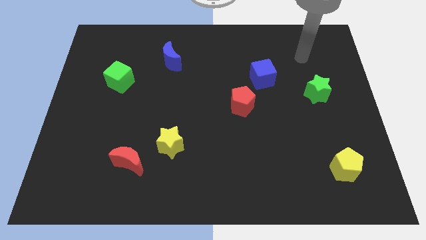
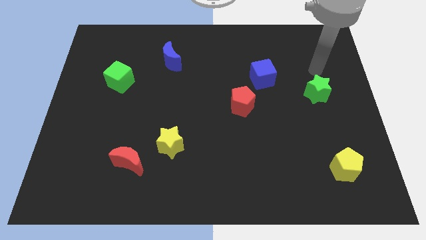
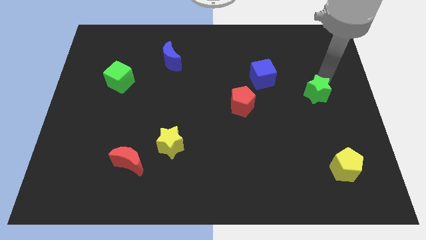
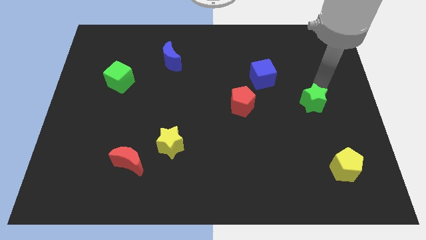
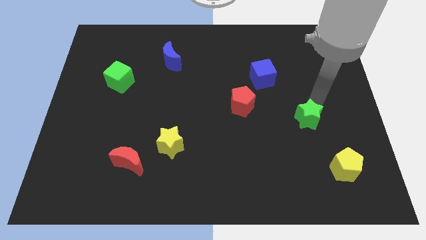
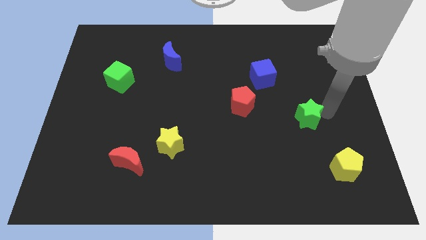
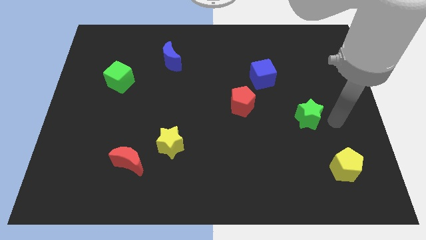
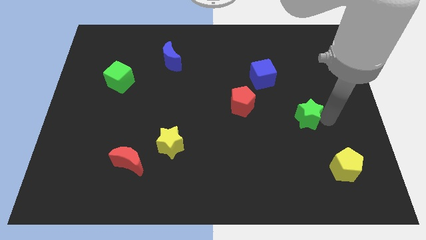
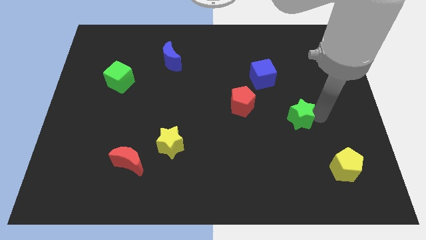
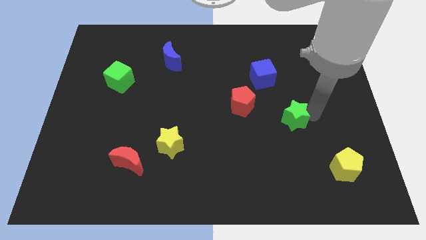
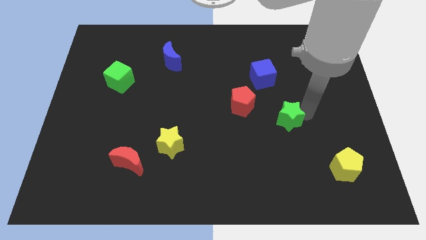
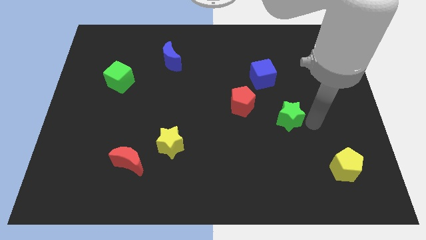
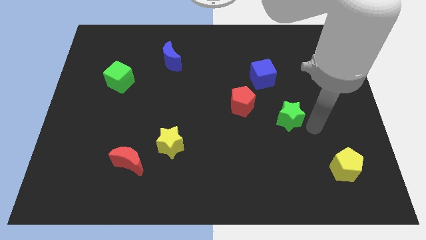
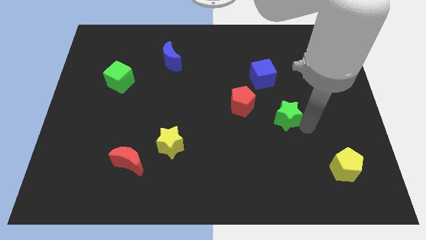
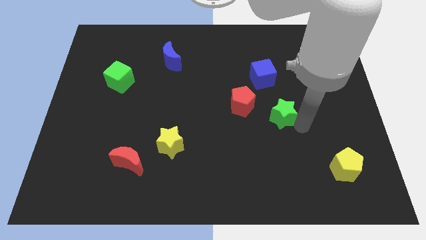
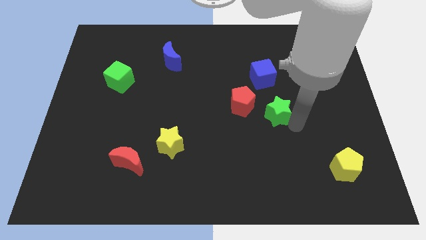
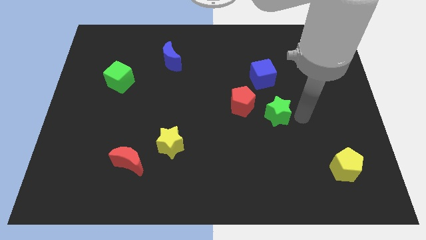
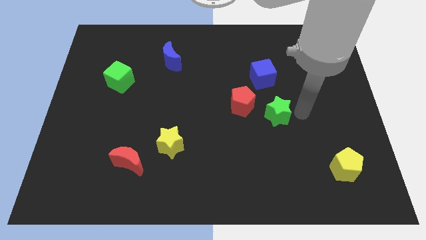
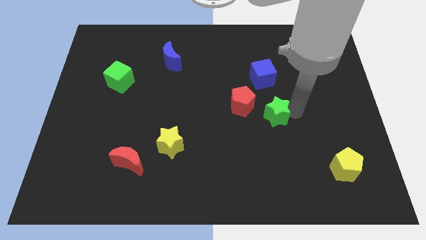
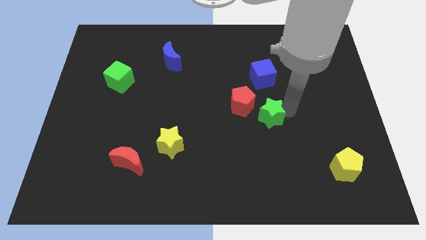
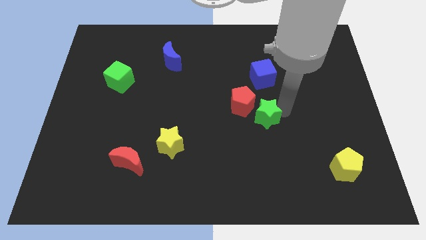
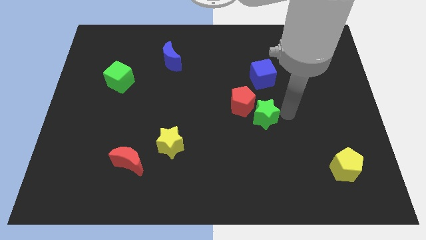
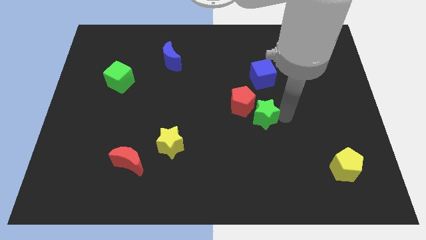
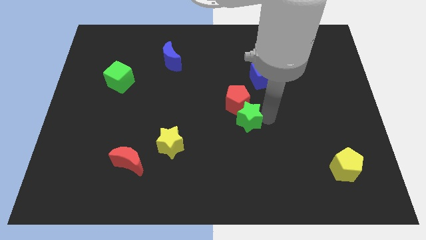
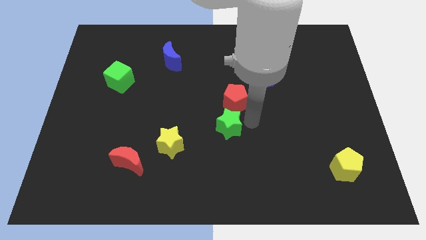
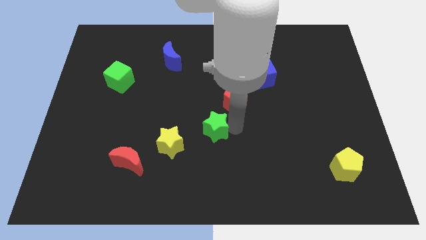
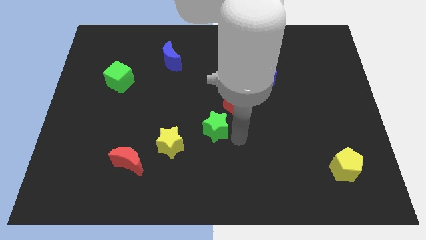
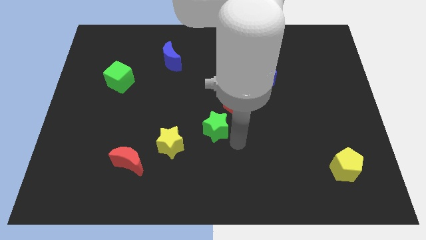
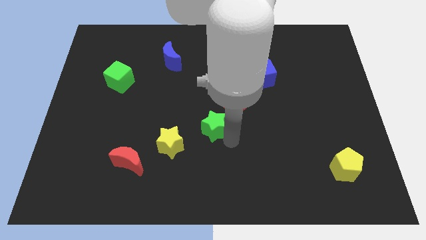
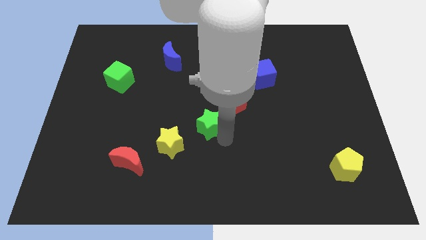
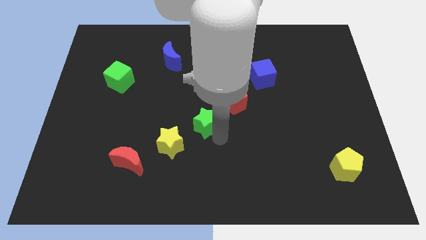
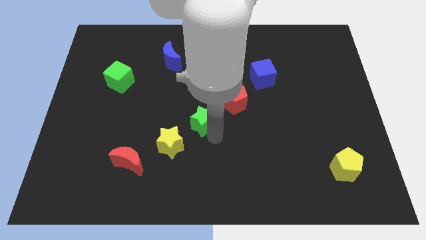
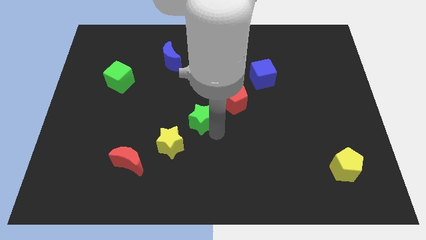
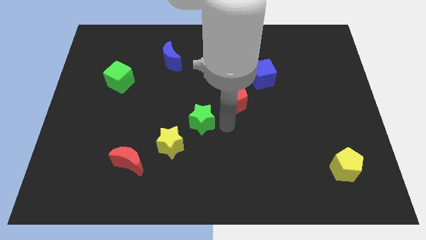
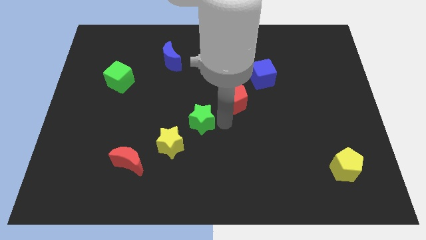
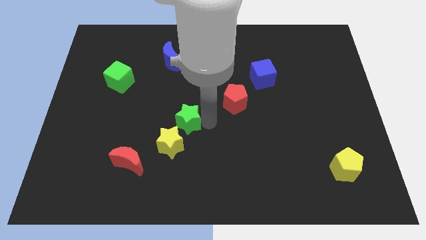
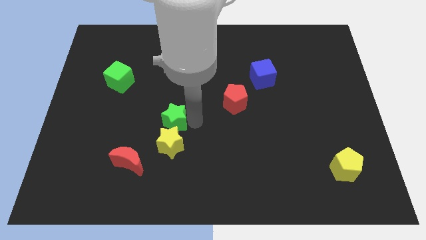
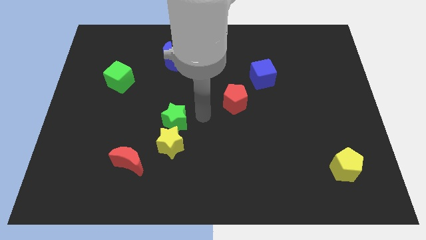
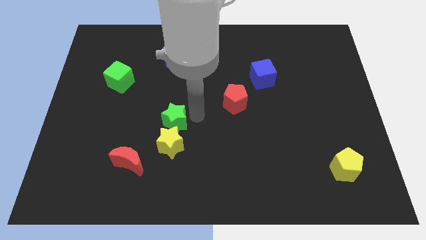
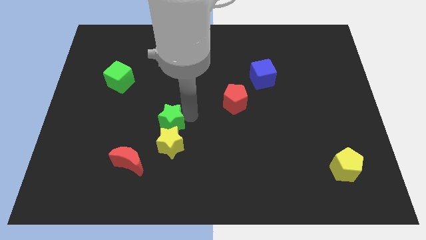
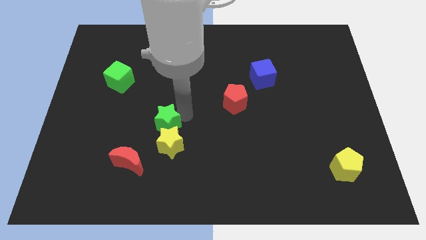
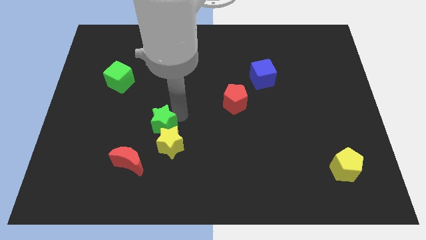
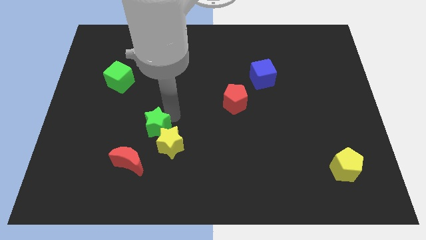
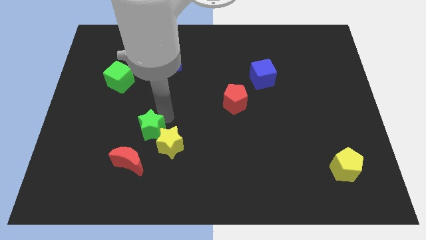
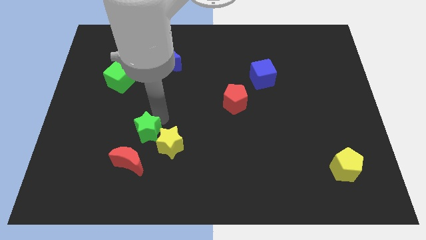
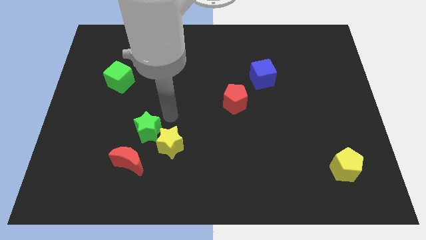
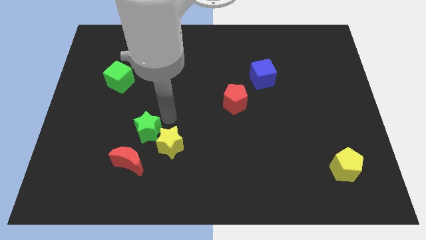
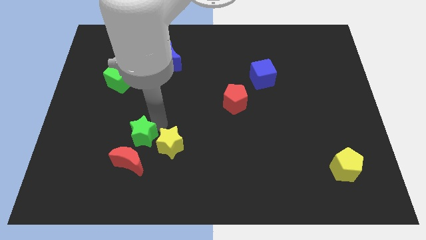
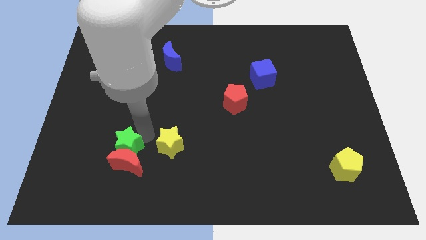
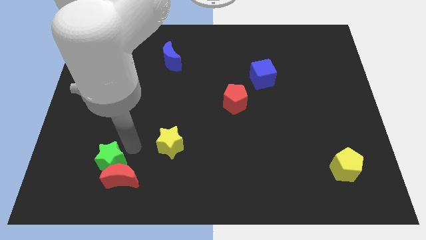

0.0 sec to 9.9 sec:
move the green star to the left side of the red moon

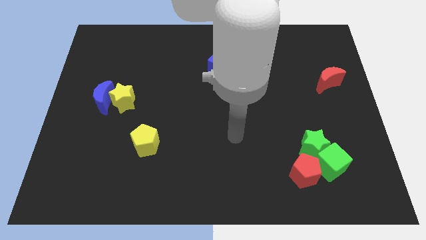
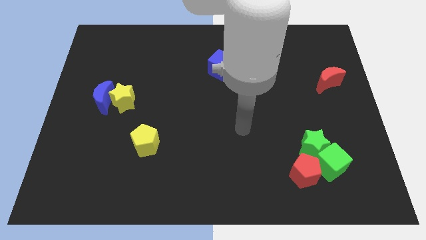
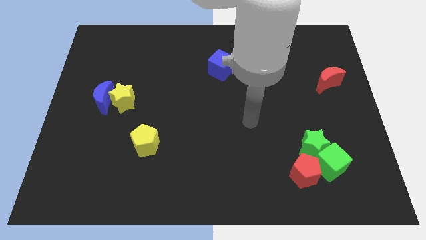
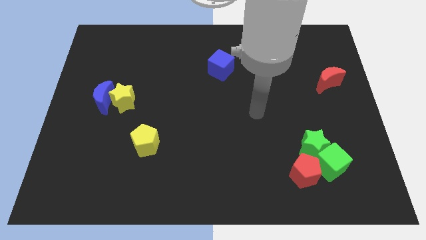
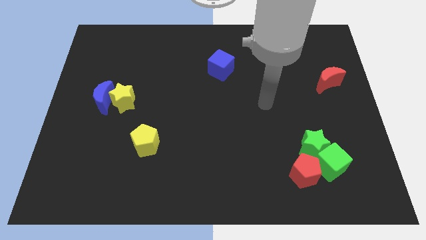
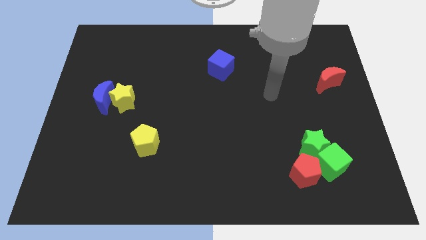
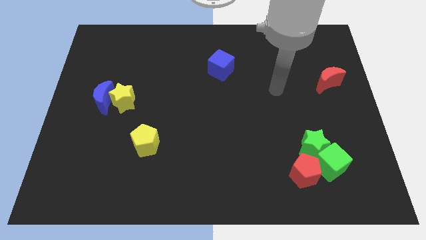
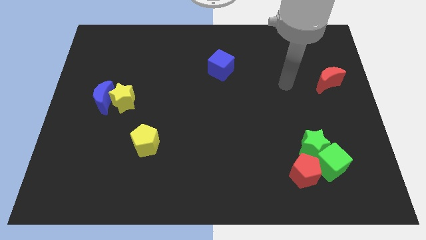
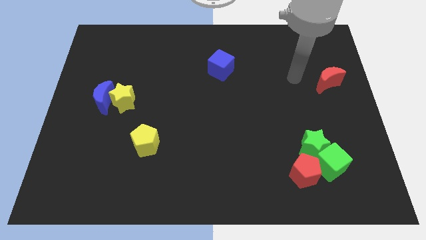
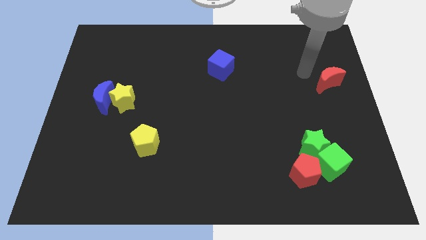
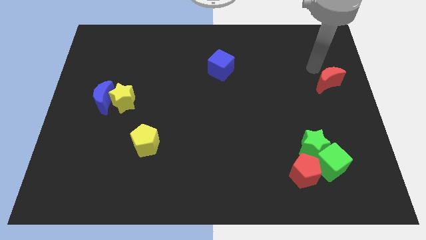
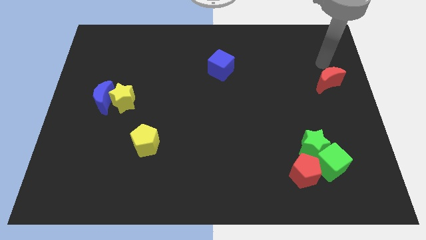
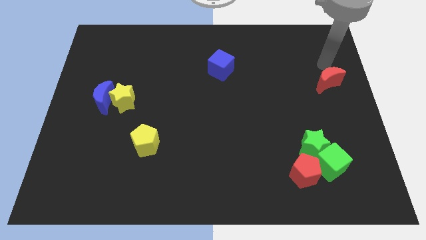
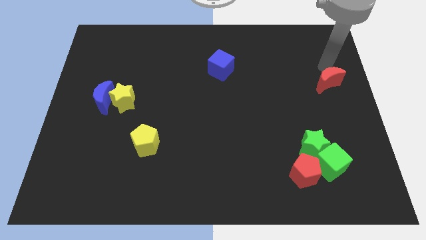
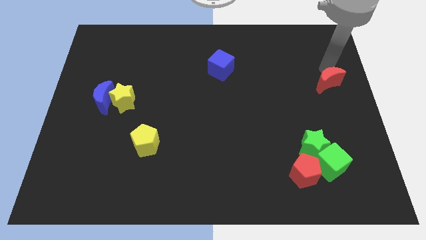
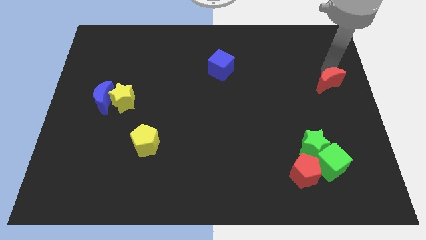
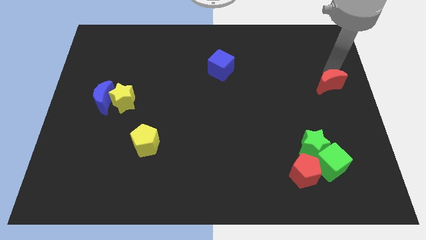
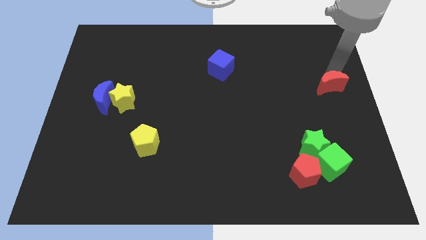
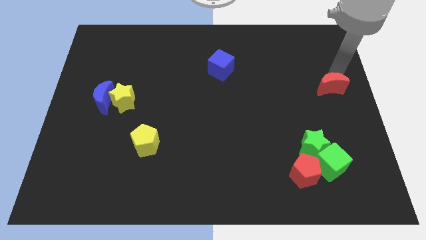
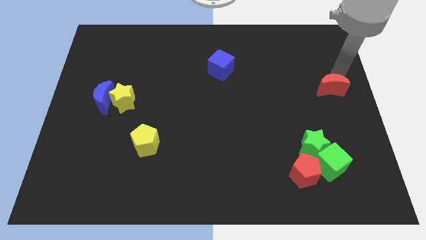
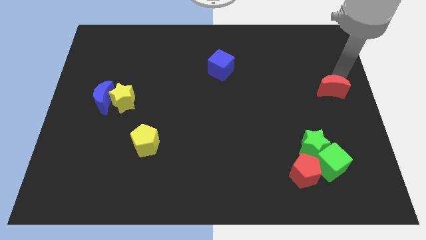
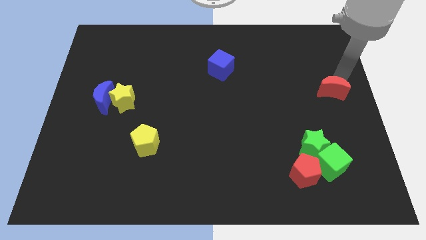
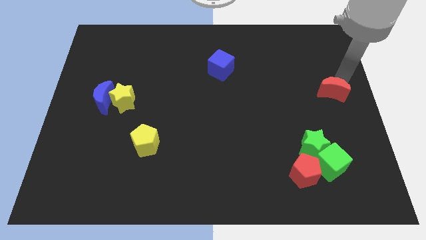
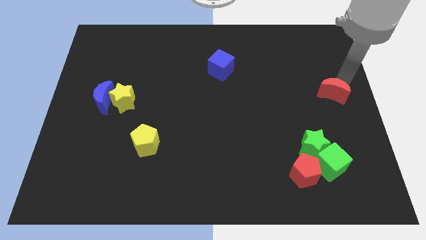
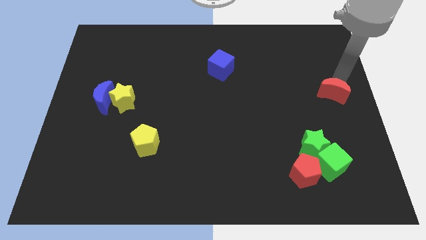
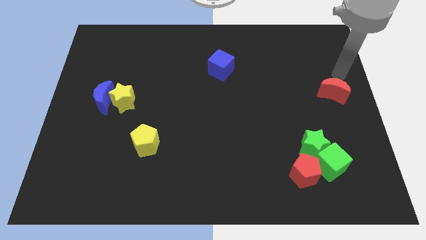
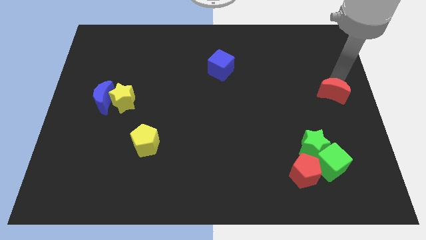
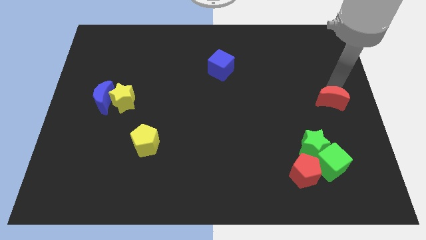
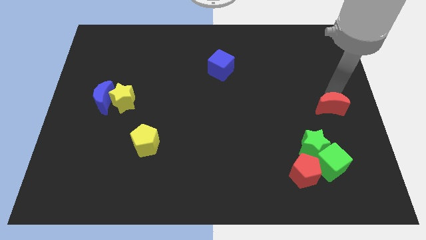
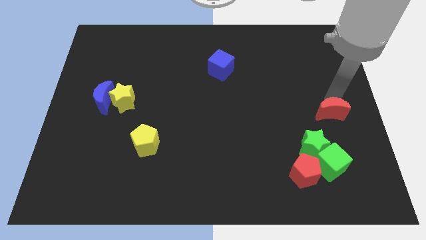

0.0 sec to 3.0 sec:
push the red moon above the green cube
